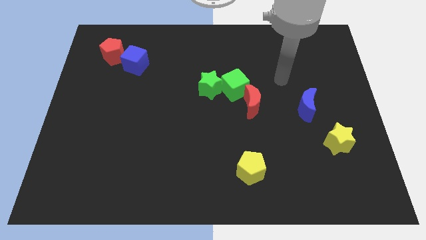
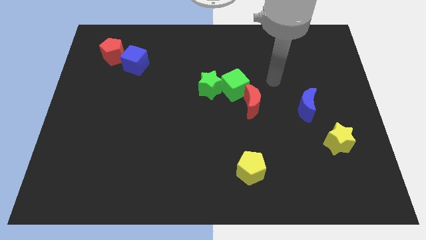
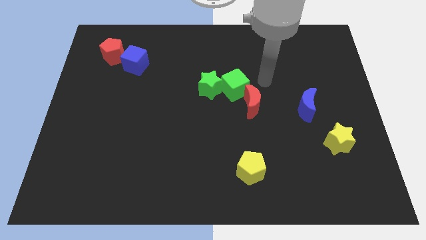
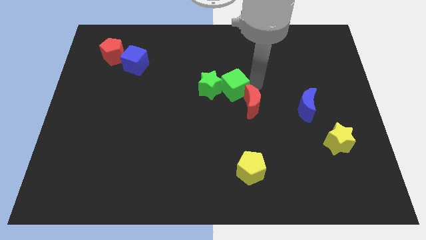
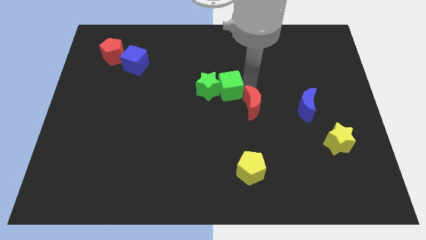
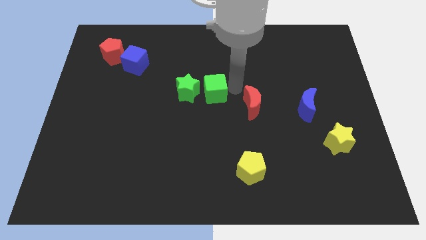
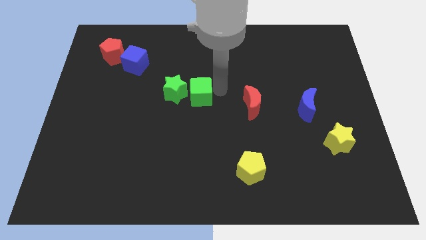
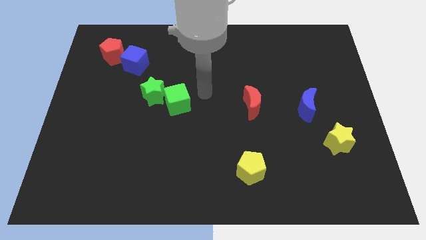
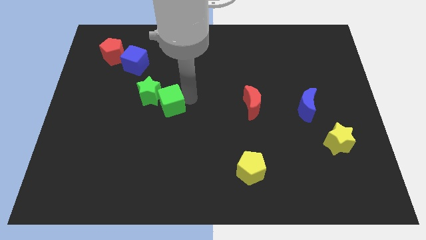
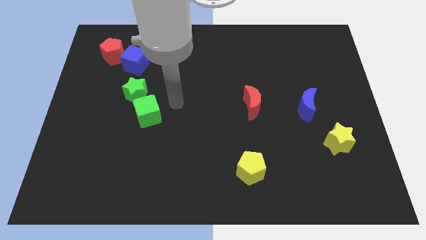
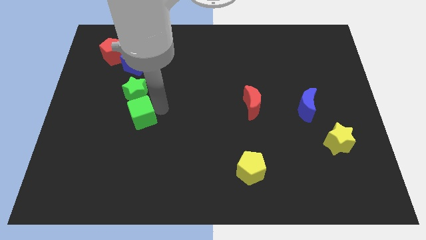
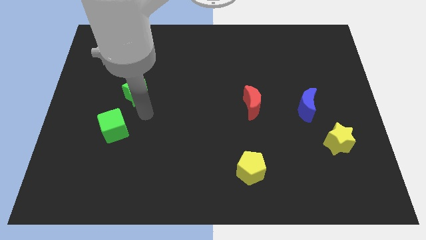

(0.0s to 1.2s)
move the green star away from the green cube

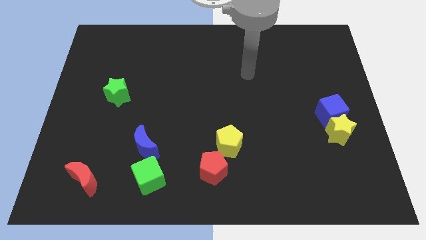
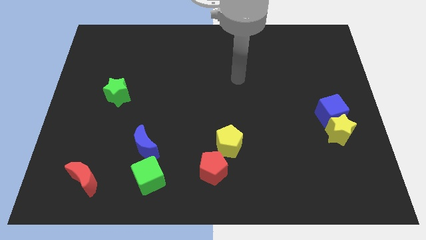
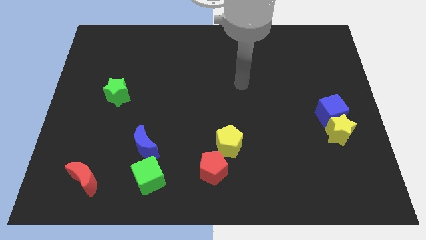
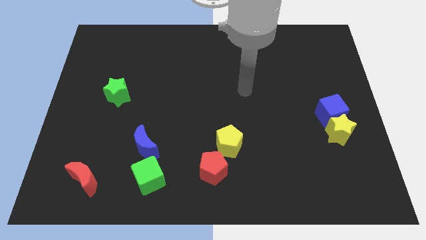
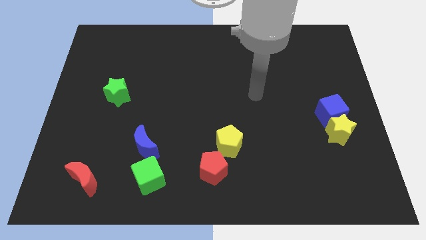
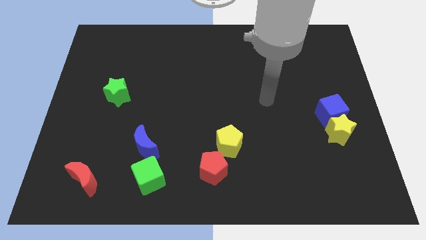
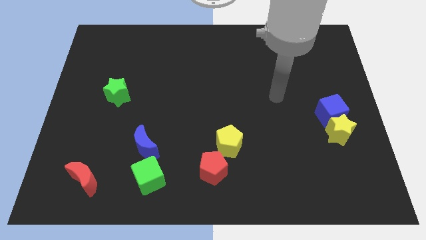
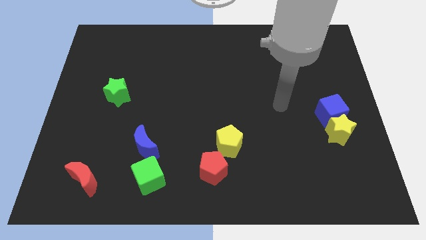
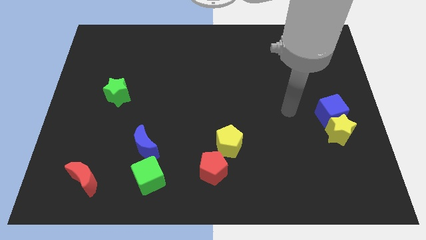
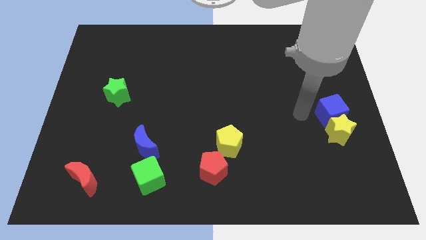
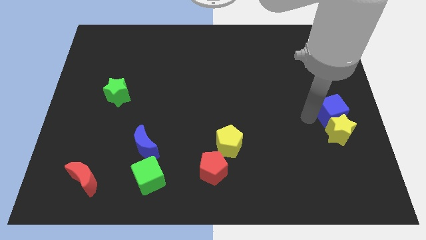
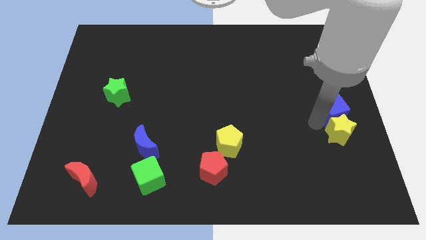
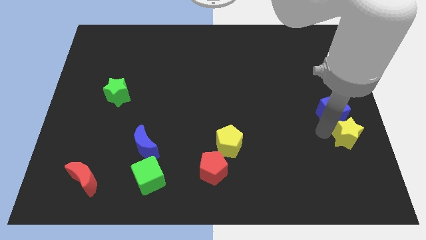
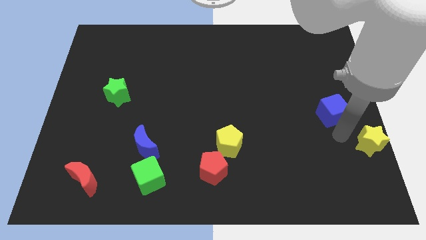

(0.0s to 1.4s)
move the blue cube away from the yellow star

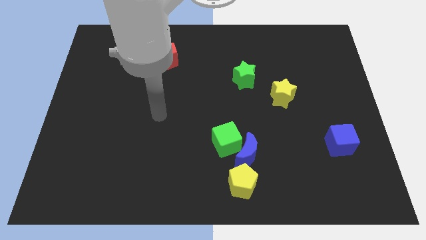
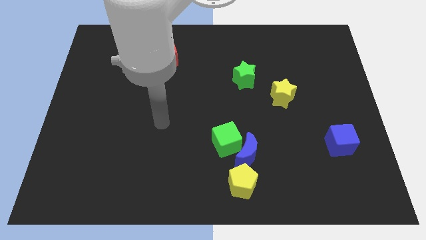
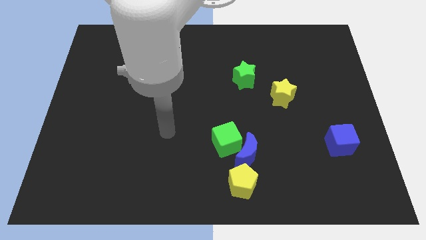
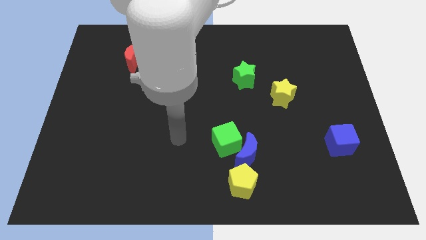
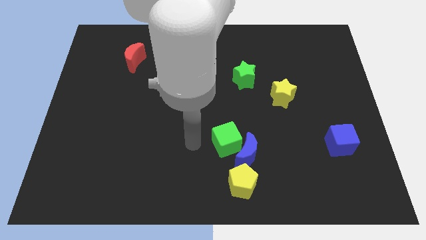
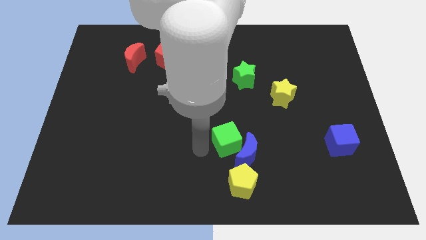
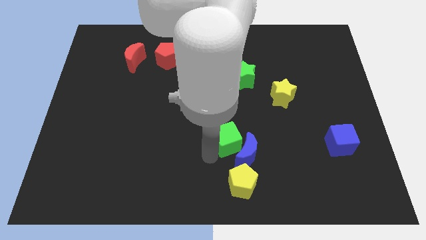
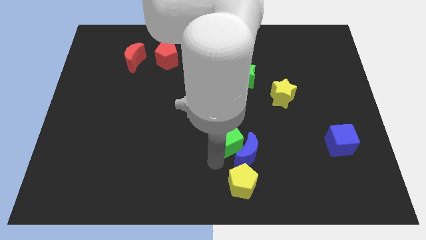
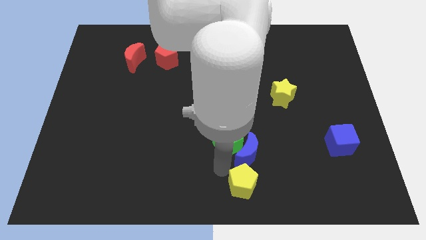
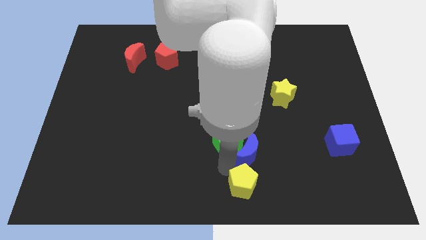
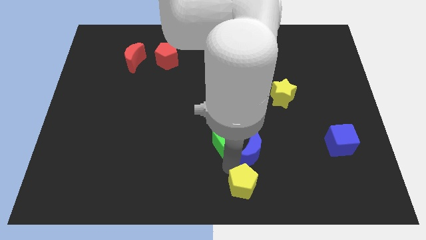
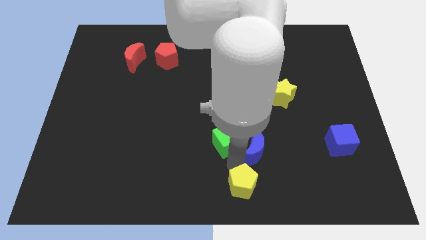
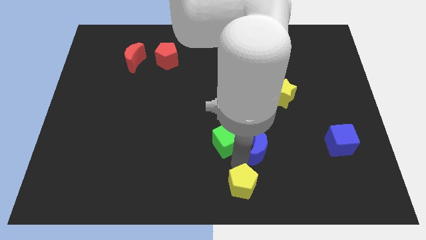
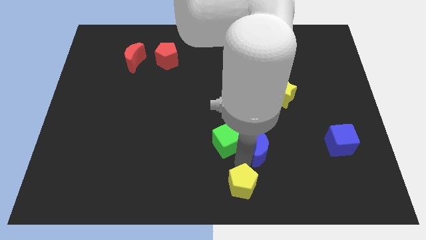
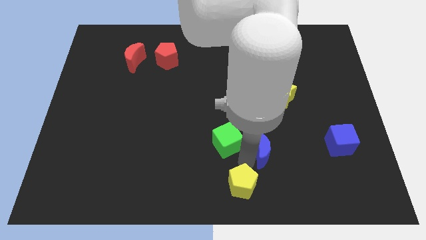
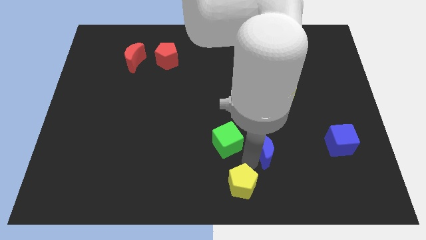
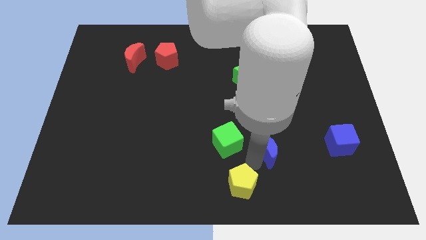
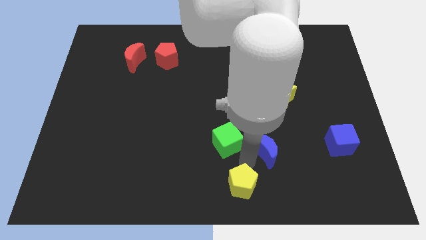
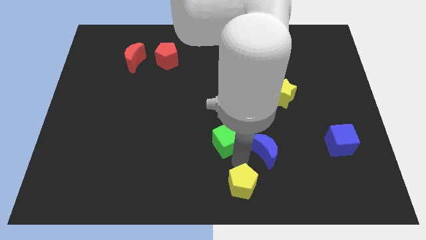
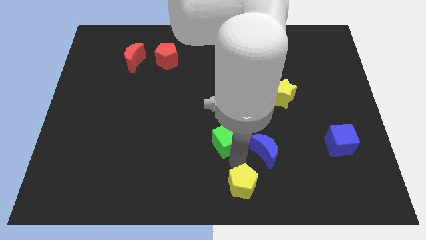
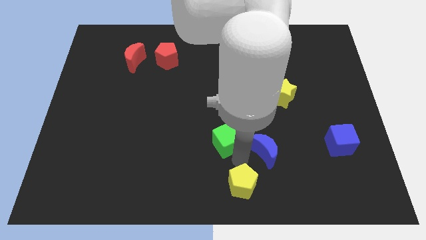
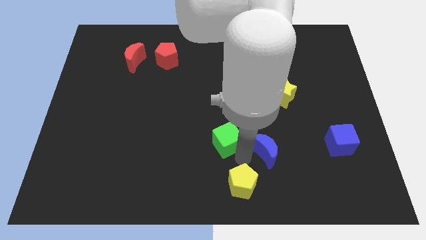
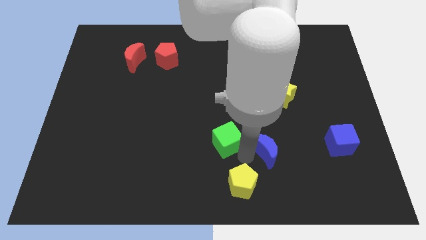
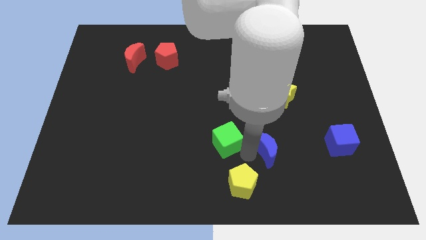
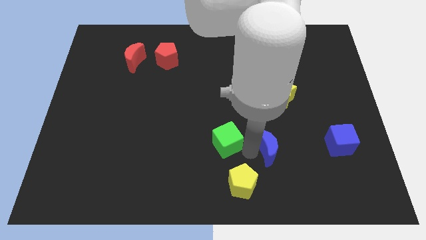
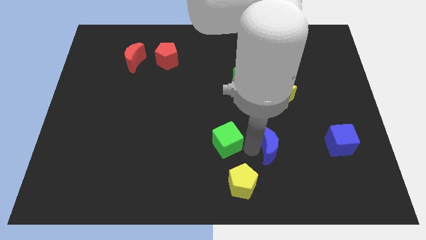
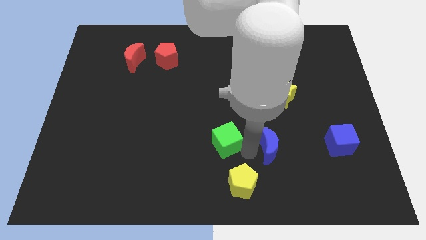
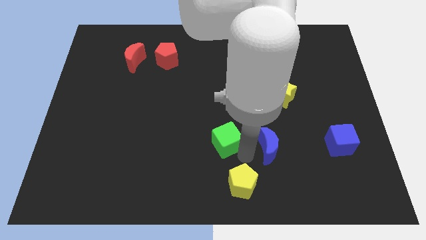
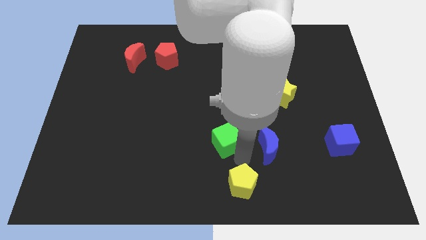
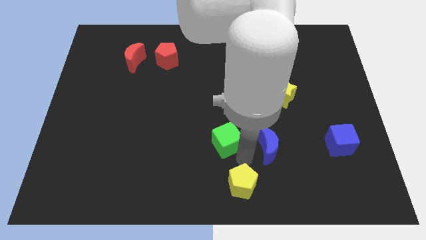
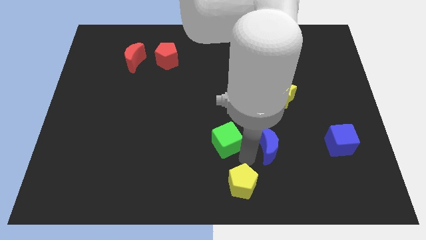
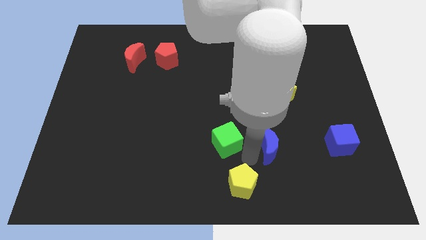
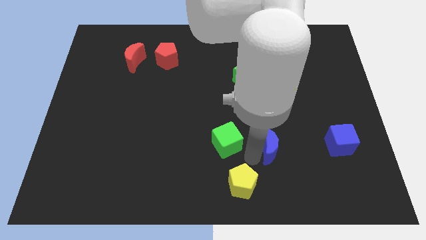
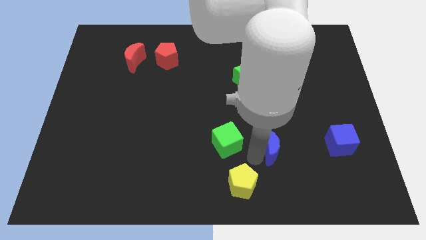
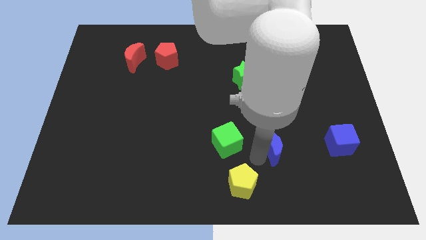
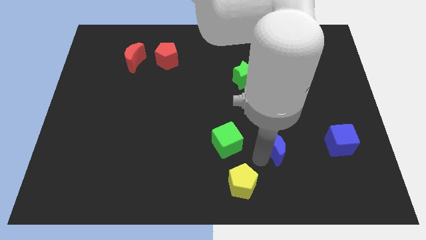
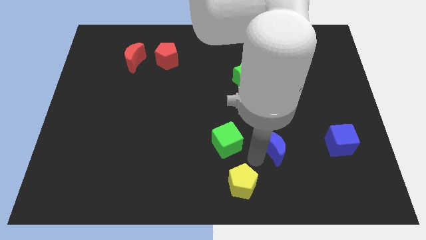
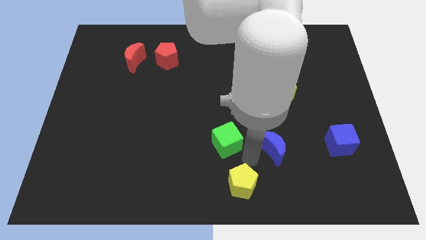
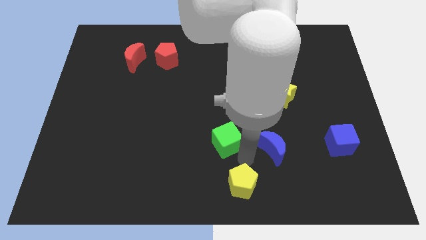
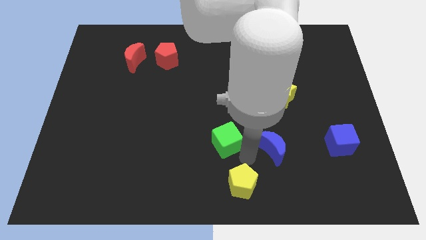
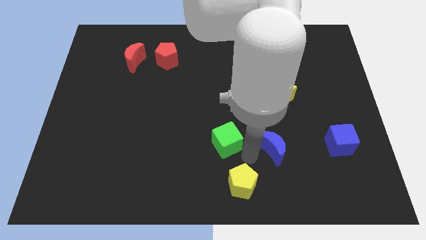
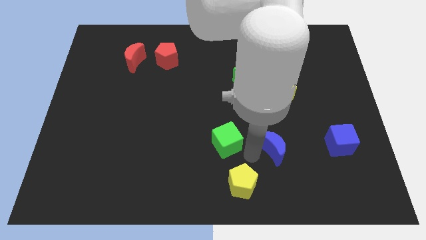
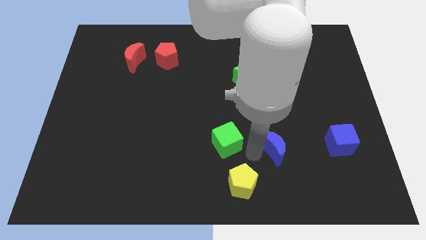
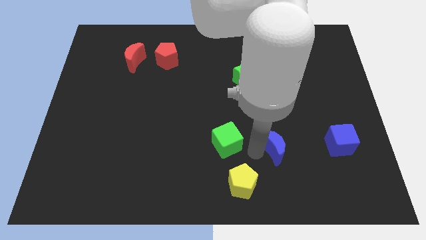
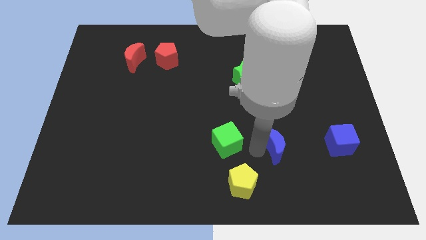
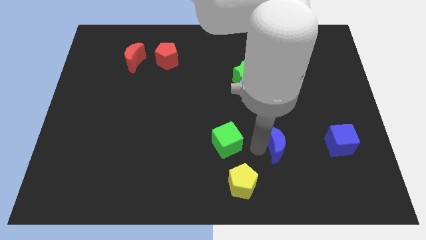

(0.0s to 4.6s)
separate the blue moon from the green cube and yellow pentagon

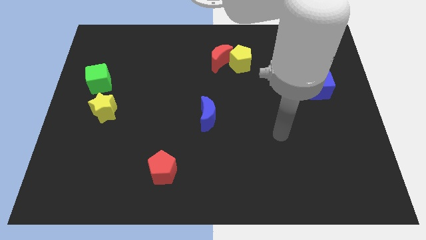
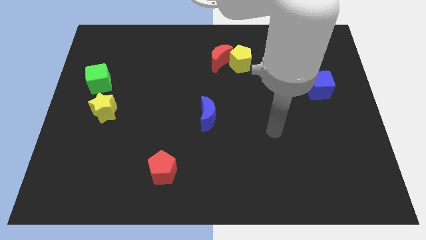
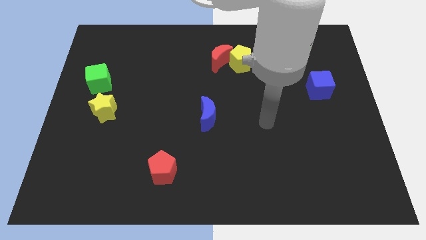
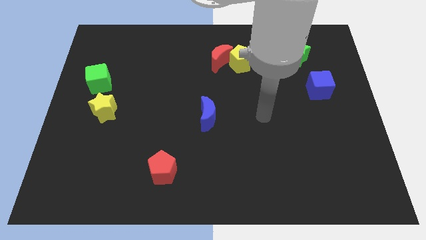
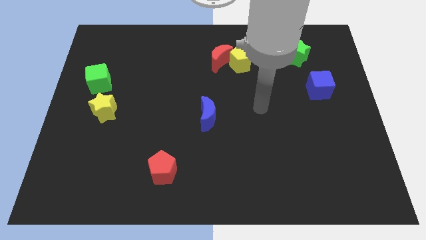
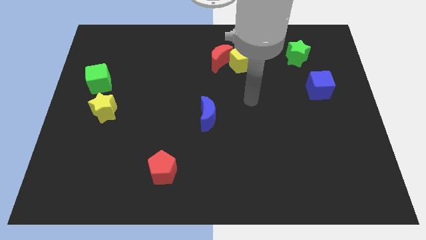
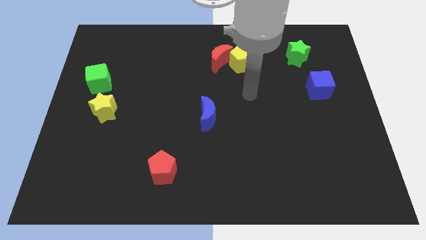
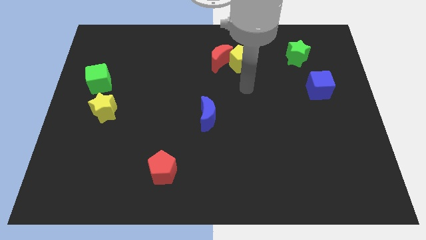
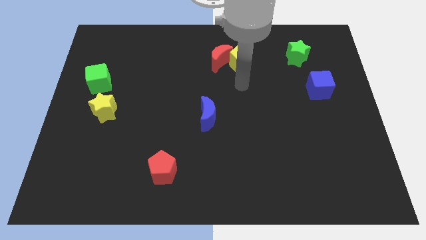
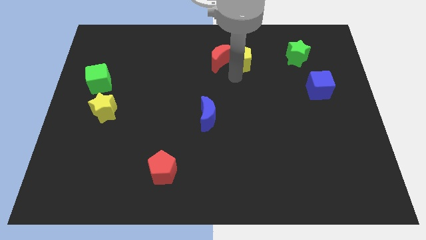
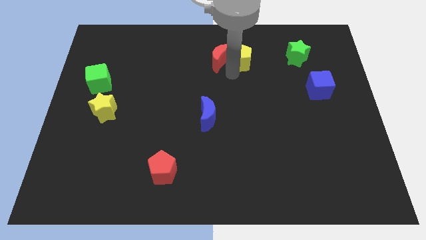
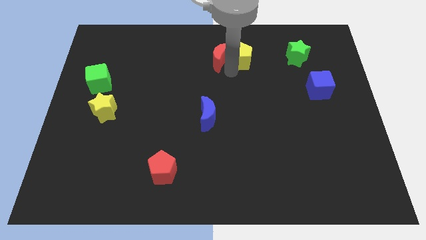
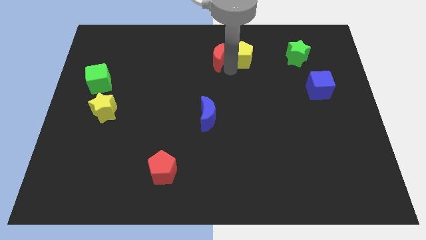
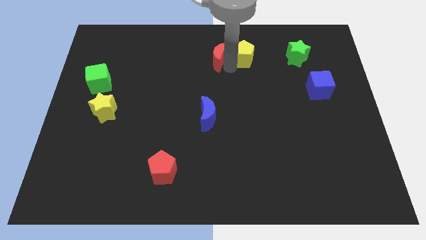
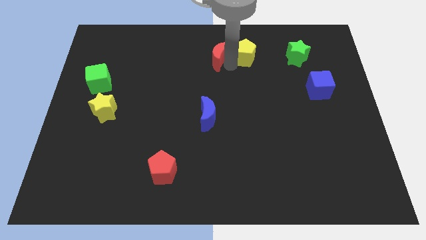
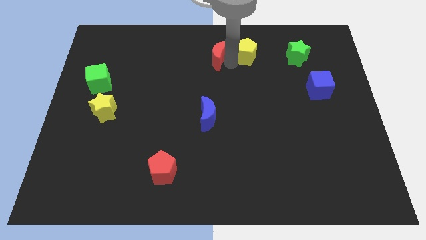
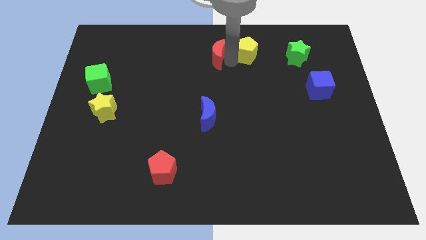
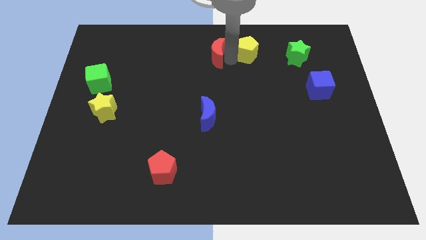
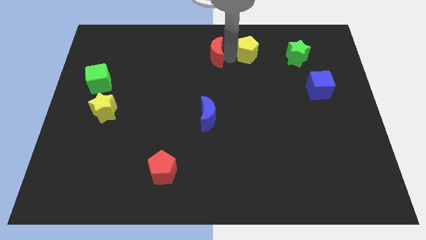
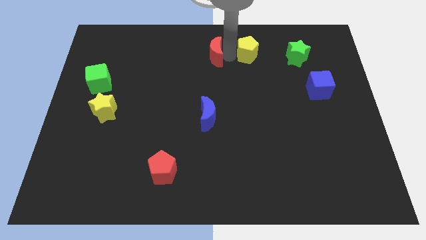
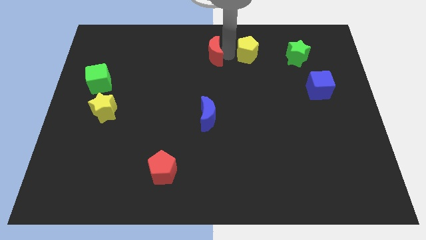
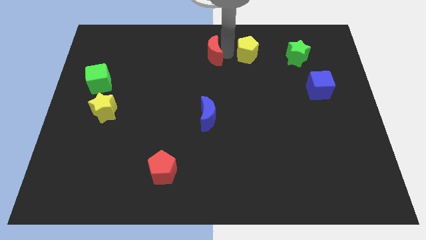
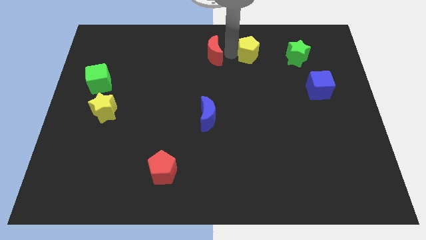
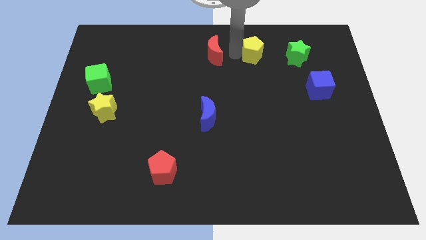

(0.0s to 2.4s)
move the red moon away from the yellow pentagon
